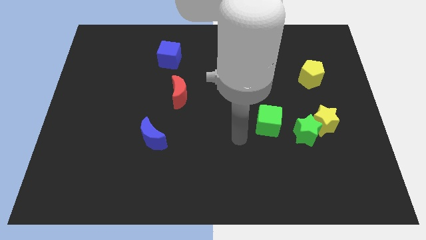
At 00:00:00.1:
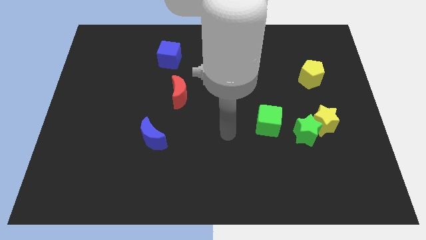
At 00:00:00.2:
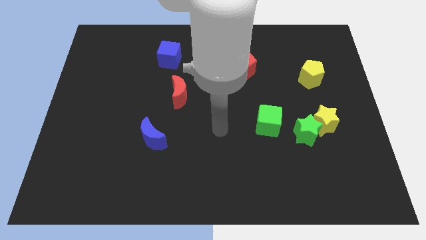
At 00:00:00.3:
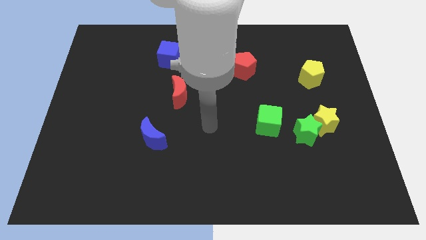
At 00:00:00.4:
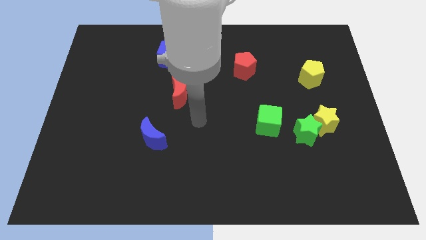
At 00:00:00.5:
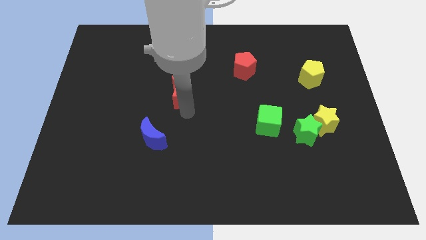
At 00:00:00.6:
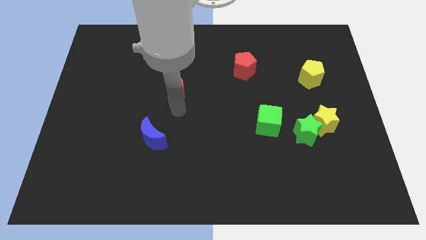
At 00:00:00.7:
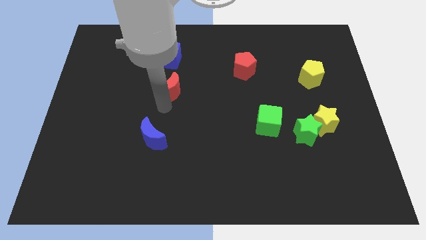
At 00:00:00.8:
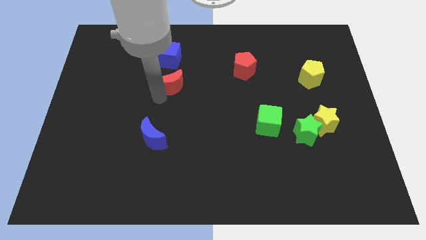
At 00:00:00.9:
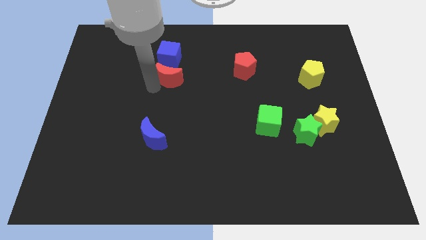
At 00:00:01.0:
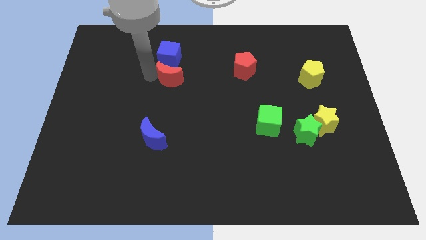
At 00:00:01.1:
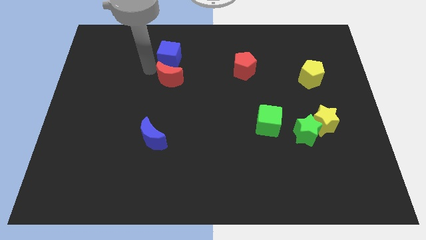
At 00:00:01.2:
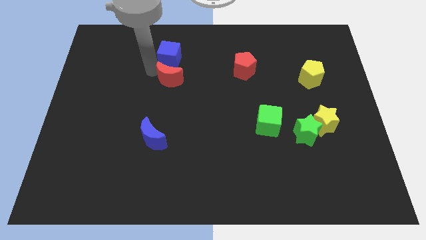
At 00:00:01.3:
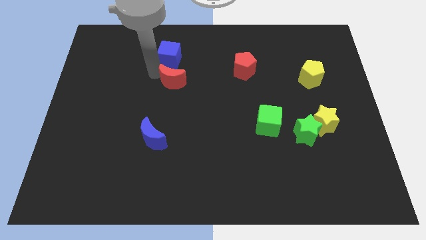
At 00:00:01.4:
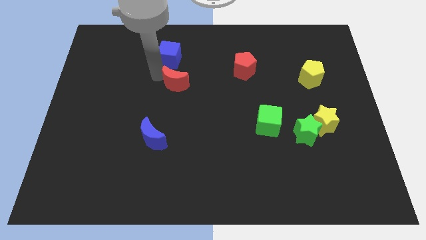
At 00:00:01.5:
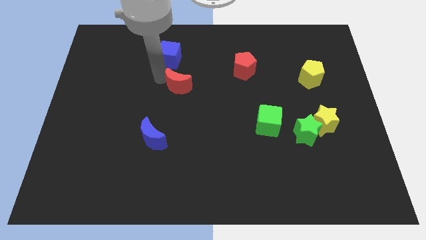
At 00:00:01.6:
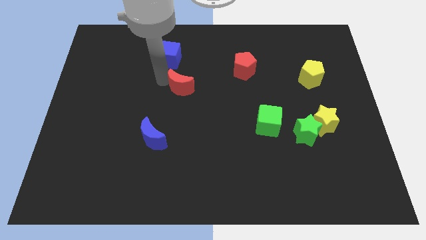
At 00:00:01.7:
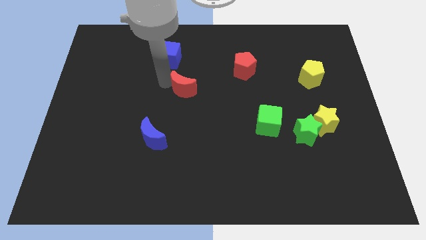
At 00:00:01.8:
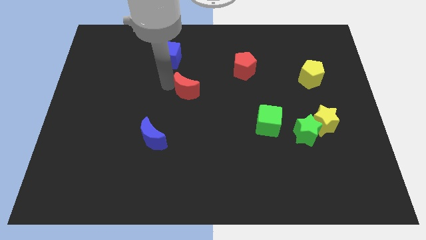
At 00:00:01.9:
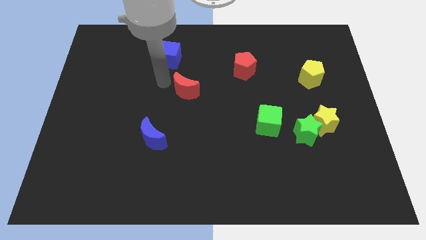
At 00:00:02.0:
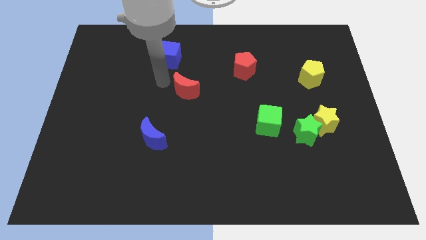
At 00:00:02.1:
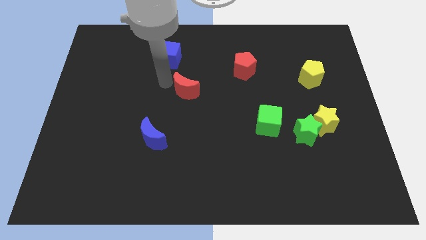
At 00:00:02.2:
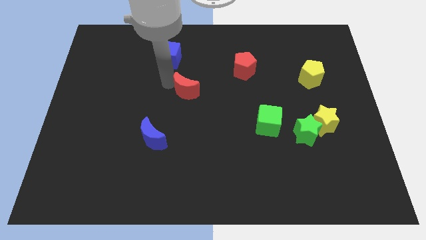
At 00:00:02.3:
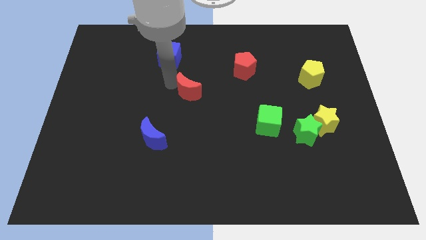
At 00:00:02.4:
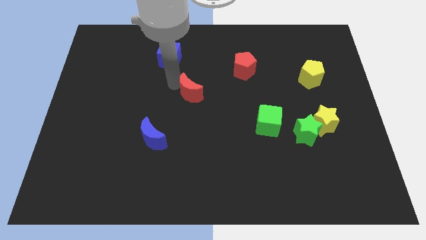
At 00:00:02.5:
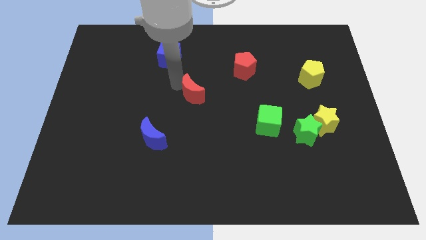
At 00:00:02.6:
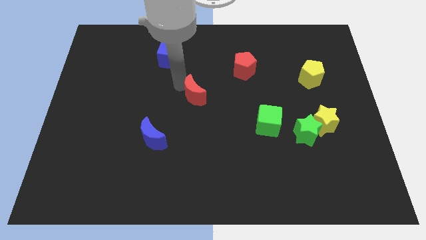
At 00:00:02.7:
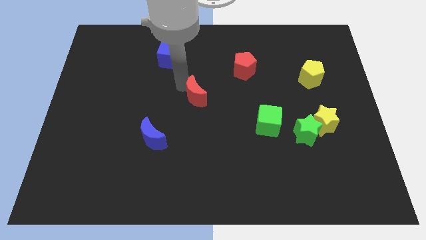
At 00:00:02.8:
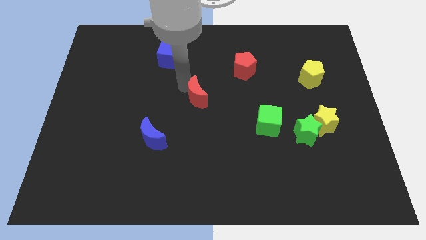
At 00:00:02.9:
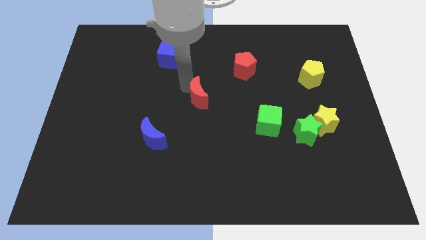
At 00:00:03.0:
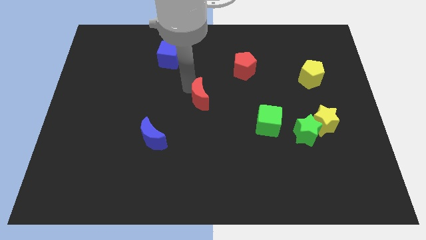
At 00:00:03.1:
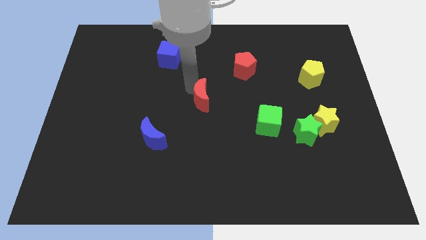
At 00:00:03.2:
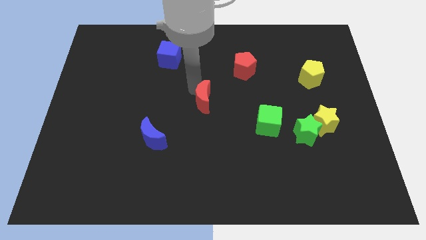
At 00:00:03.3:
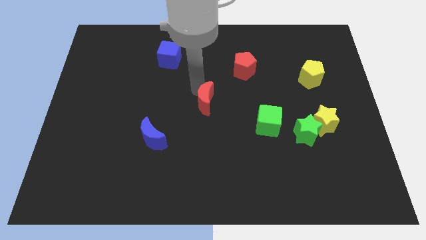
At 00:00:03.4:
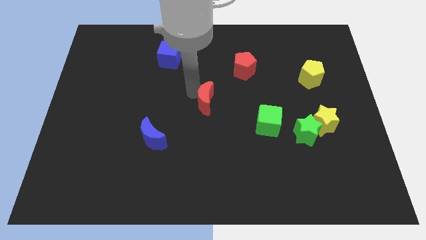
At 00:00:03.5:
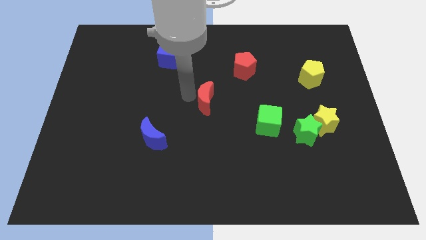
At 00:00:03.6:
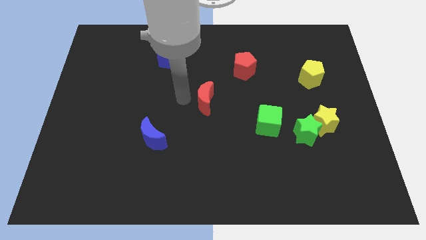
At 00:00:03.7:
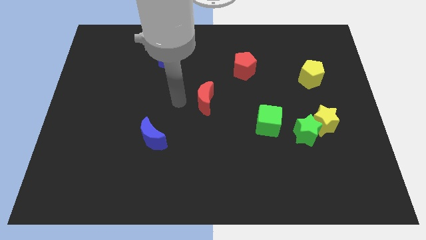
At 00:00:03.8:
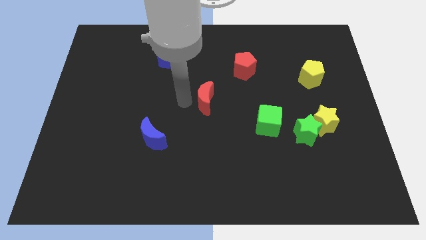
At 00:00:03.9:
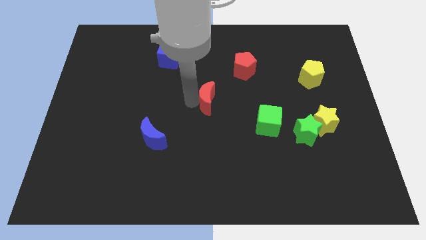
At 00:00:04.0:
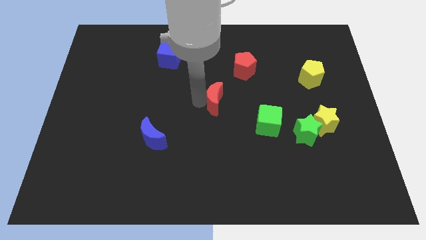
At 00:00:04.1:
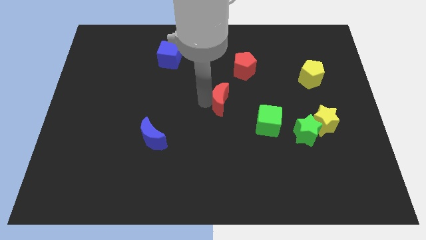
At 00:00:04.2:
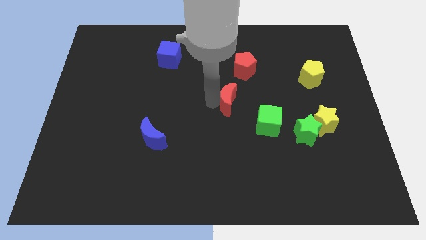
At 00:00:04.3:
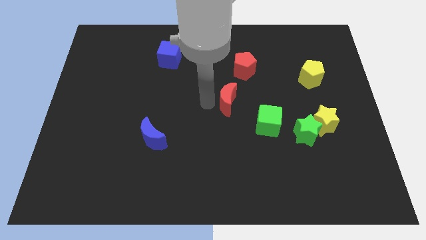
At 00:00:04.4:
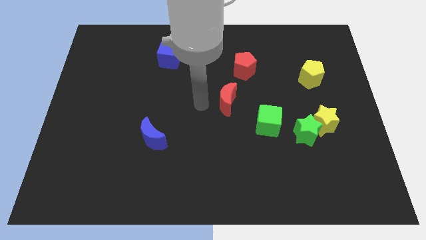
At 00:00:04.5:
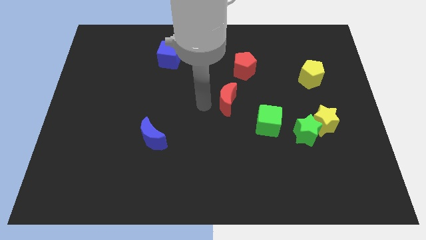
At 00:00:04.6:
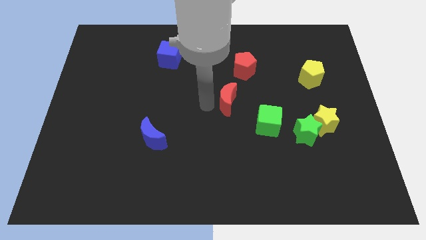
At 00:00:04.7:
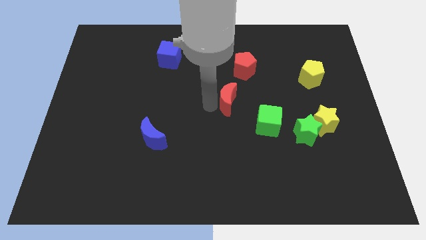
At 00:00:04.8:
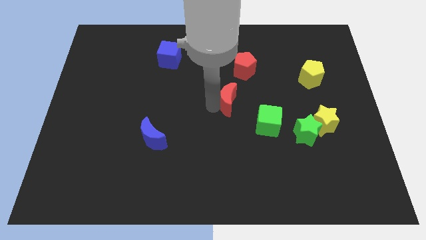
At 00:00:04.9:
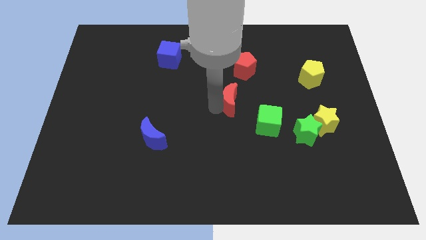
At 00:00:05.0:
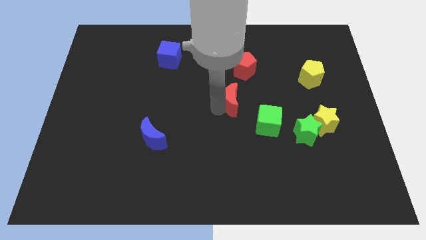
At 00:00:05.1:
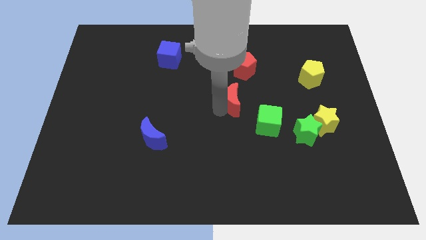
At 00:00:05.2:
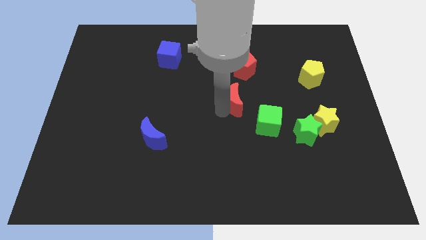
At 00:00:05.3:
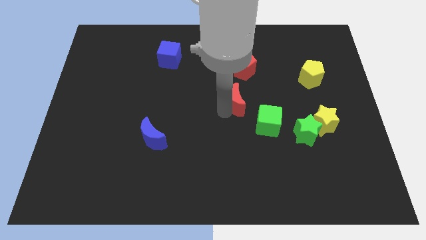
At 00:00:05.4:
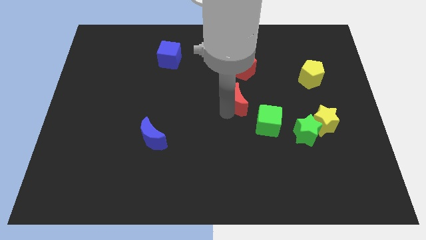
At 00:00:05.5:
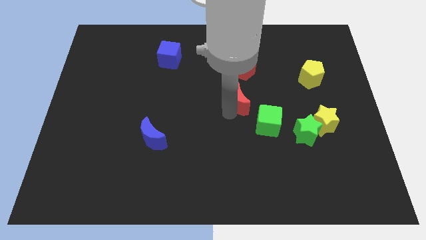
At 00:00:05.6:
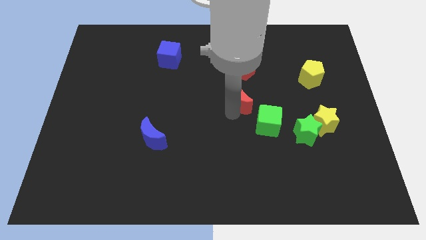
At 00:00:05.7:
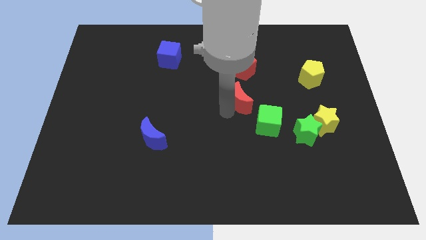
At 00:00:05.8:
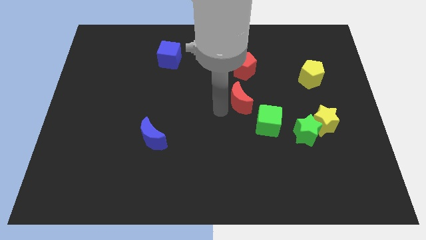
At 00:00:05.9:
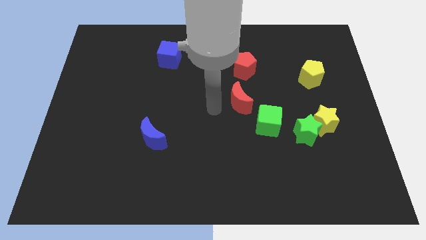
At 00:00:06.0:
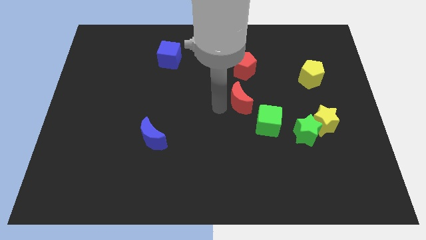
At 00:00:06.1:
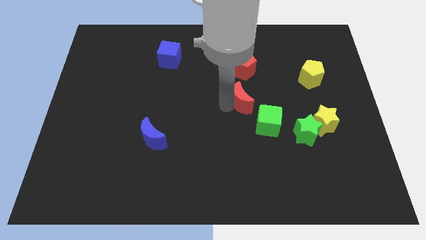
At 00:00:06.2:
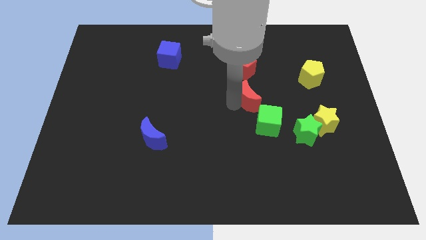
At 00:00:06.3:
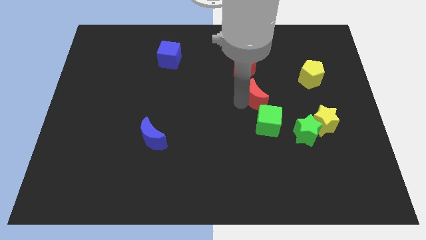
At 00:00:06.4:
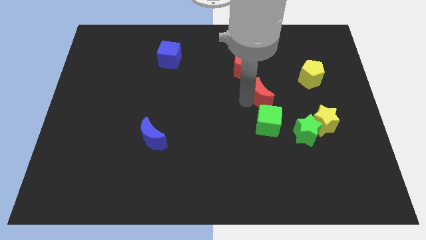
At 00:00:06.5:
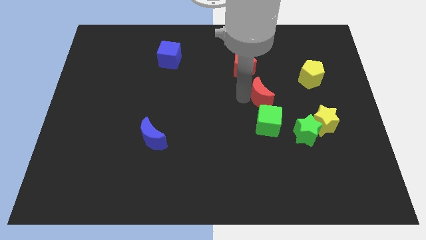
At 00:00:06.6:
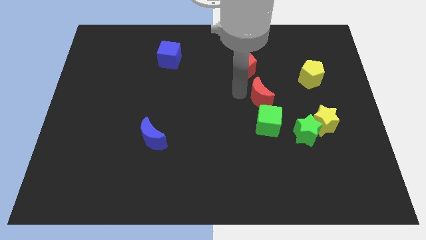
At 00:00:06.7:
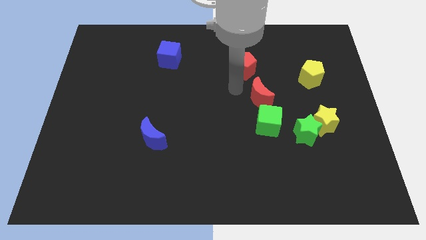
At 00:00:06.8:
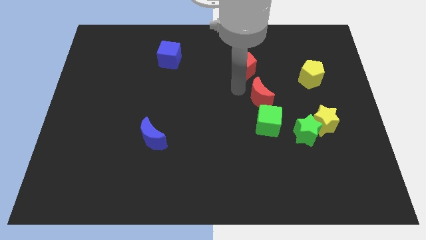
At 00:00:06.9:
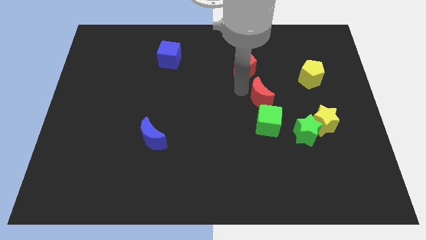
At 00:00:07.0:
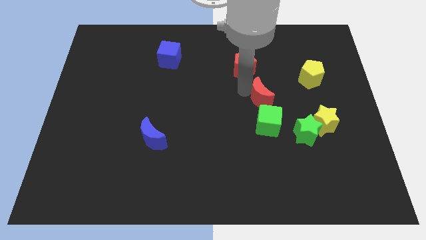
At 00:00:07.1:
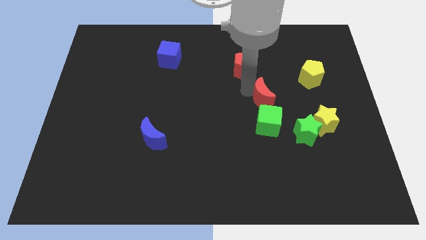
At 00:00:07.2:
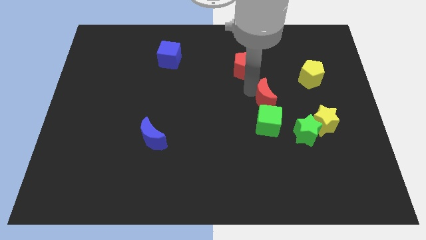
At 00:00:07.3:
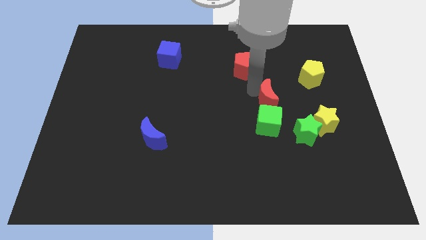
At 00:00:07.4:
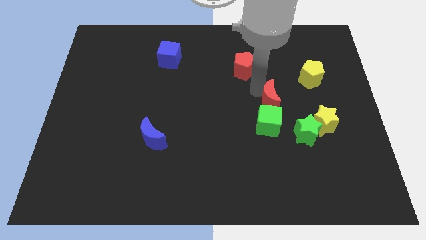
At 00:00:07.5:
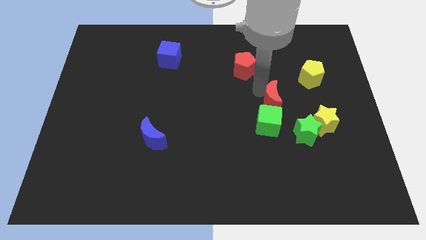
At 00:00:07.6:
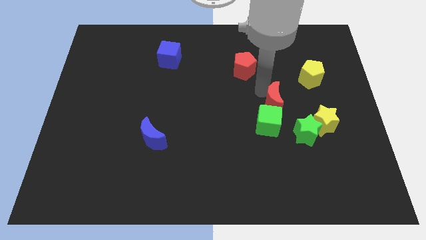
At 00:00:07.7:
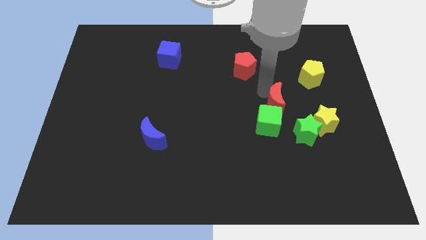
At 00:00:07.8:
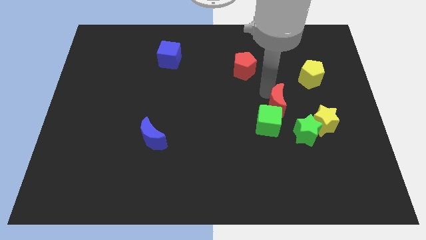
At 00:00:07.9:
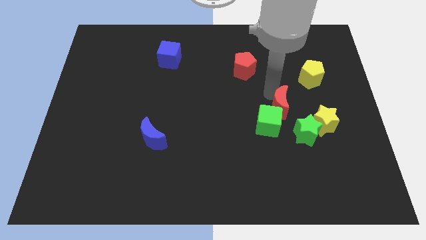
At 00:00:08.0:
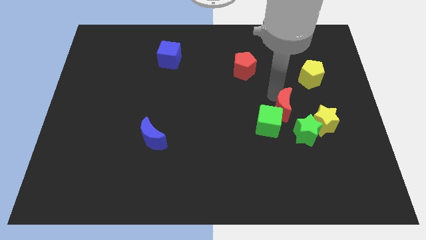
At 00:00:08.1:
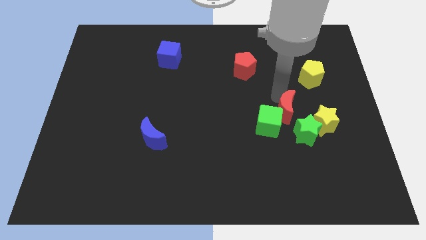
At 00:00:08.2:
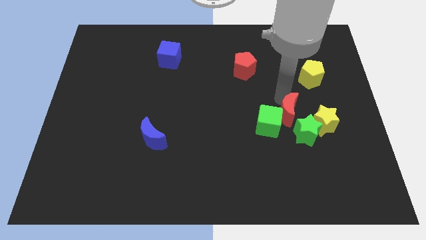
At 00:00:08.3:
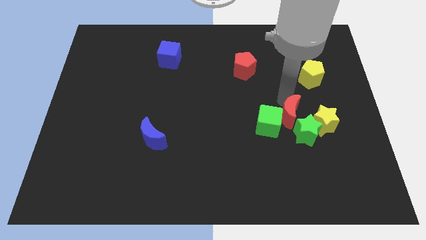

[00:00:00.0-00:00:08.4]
push the red moon next to the green star
